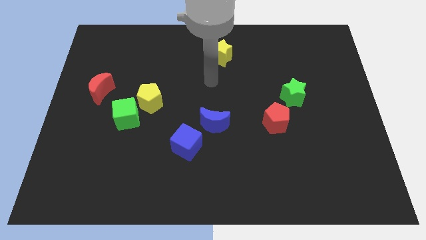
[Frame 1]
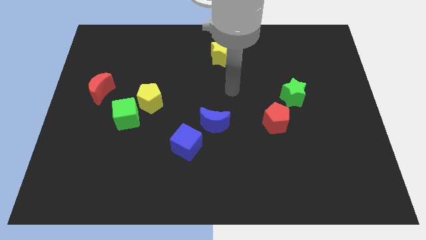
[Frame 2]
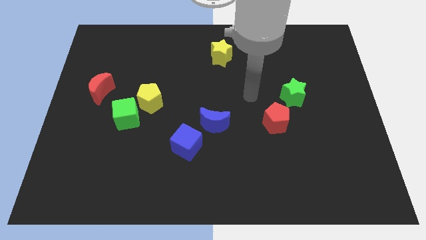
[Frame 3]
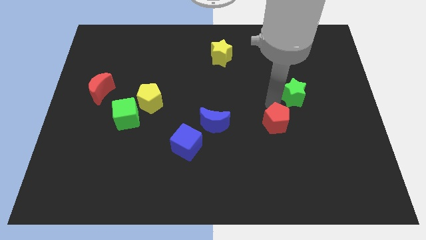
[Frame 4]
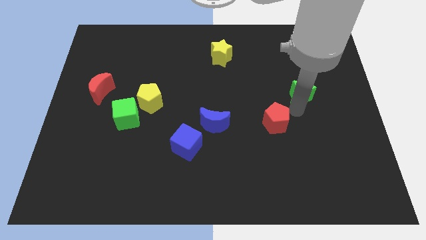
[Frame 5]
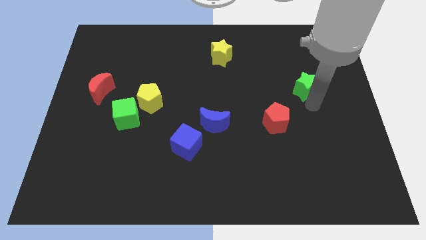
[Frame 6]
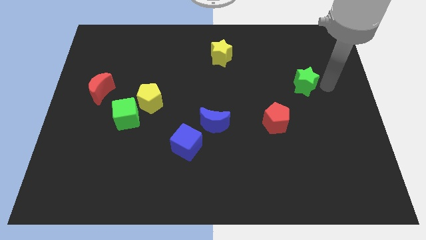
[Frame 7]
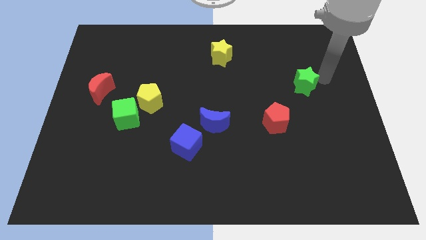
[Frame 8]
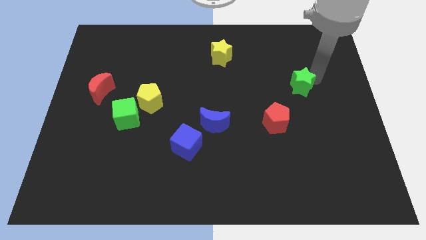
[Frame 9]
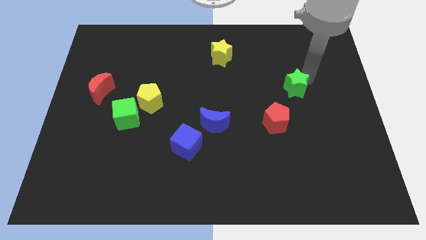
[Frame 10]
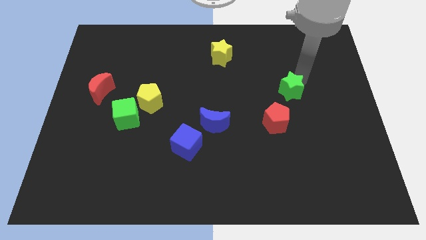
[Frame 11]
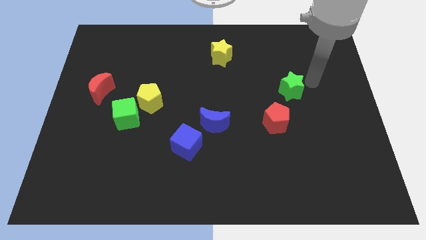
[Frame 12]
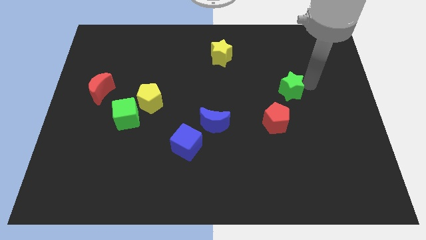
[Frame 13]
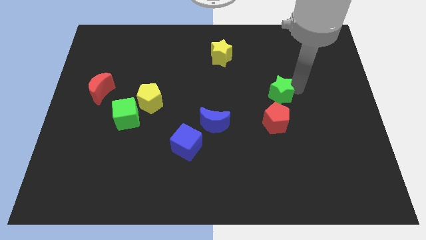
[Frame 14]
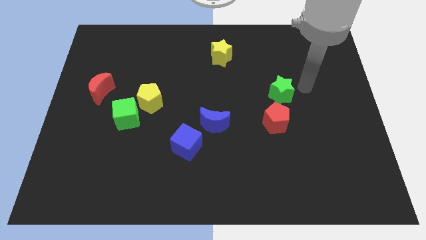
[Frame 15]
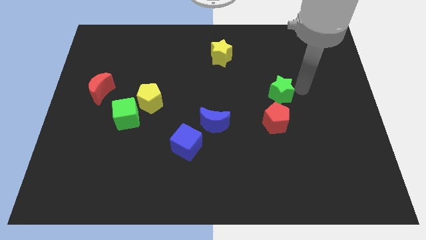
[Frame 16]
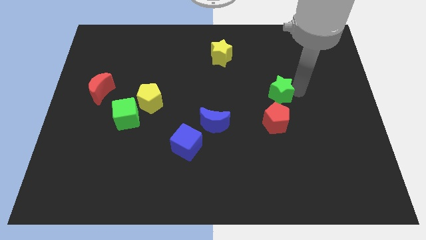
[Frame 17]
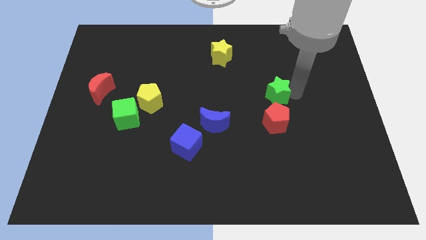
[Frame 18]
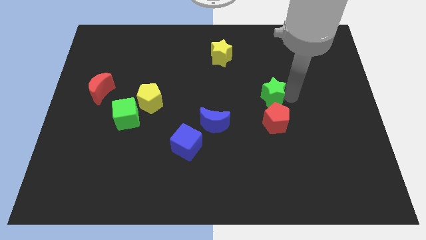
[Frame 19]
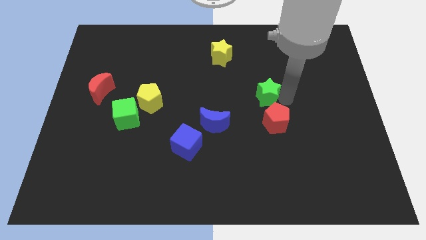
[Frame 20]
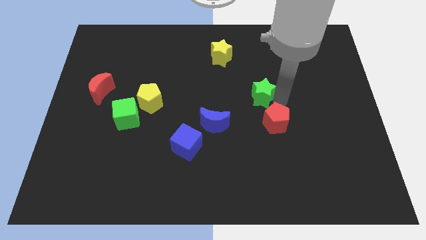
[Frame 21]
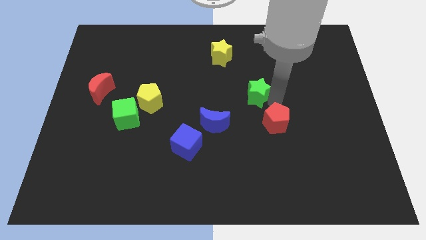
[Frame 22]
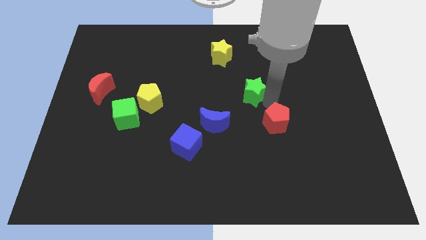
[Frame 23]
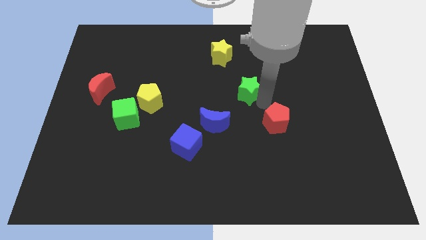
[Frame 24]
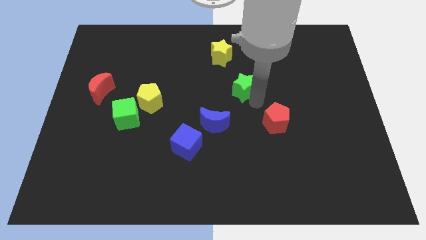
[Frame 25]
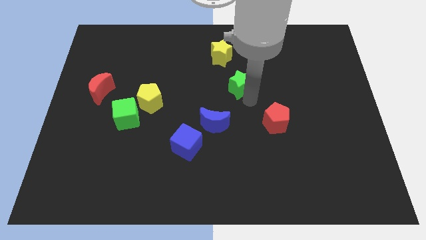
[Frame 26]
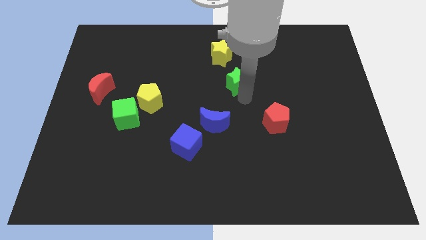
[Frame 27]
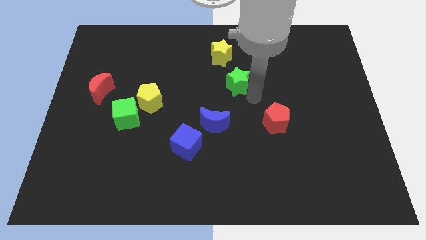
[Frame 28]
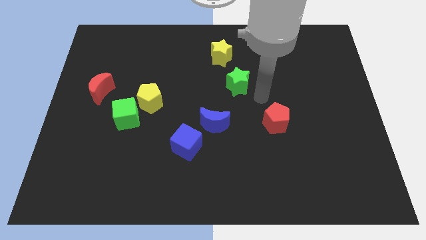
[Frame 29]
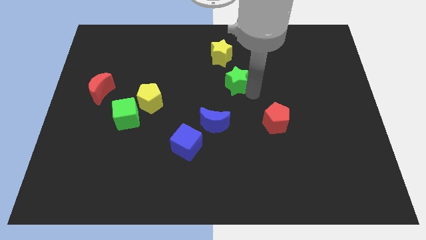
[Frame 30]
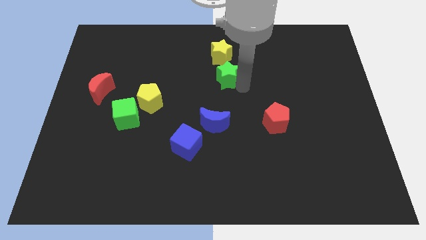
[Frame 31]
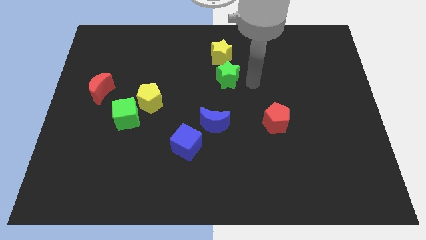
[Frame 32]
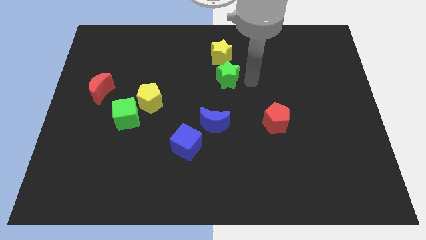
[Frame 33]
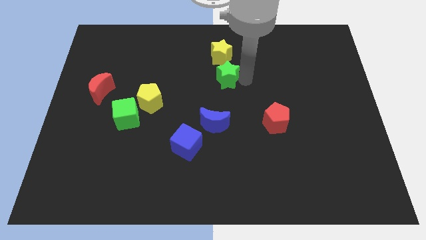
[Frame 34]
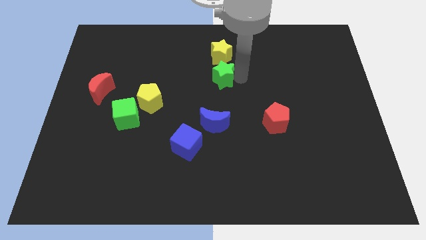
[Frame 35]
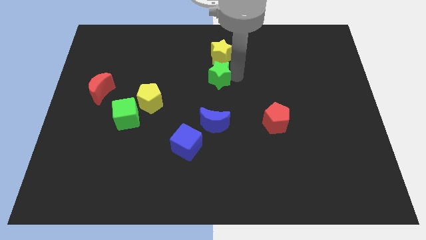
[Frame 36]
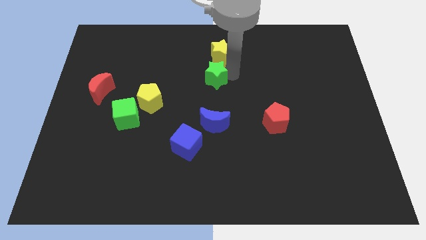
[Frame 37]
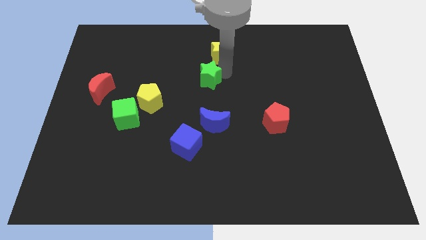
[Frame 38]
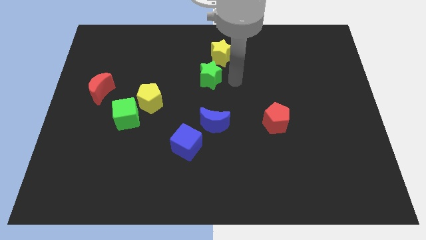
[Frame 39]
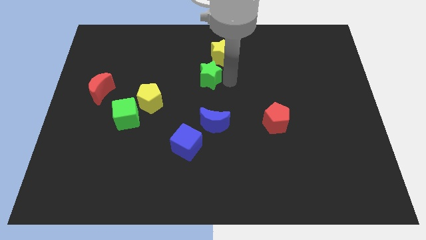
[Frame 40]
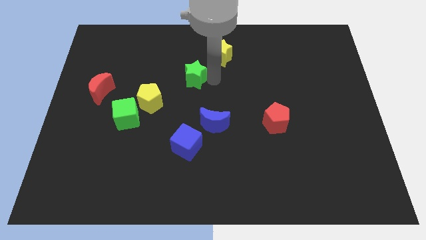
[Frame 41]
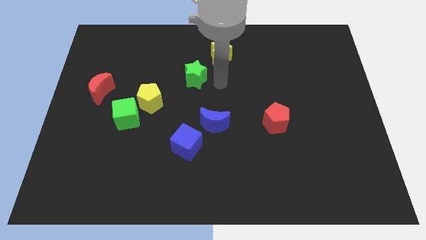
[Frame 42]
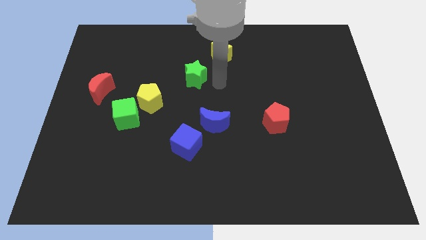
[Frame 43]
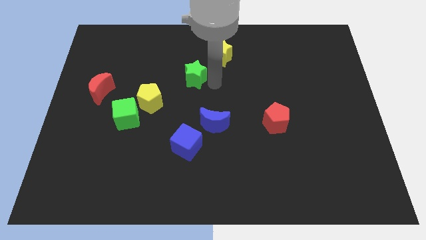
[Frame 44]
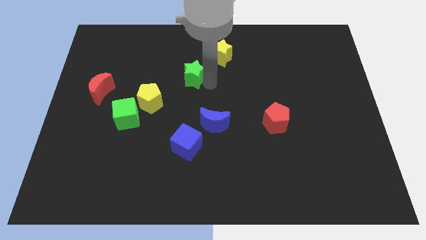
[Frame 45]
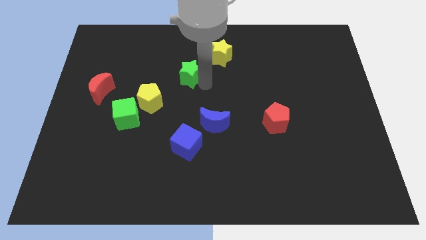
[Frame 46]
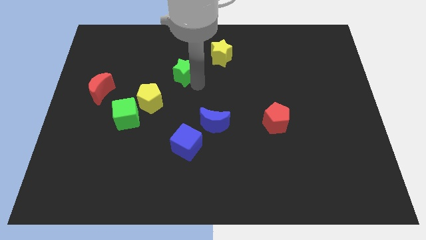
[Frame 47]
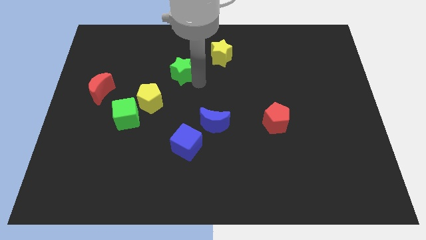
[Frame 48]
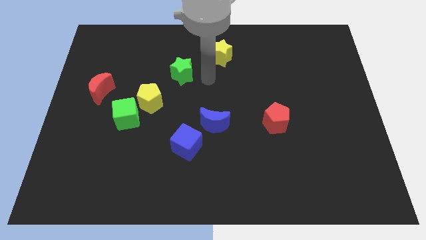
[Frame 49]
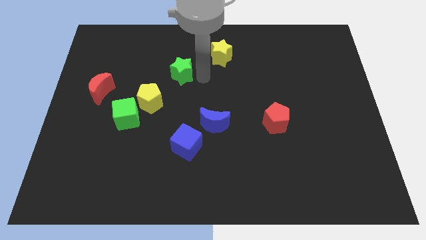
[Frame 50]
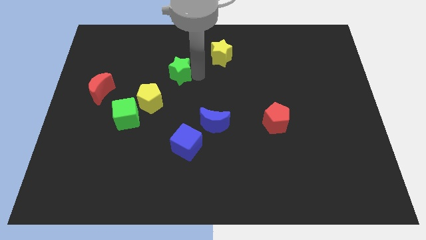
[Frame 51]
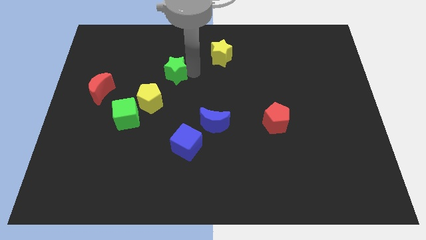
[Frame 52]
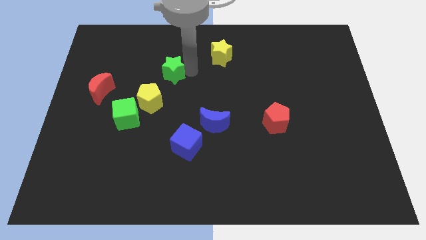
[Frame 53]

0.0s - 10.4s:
put the green star above the yellow pentagon

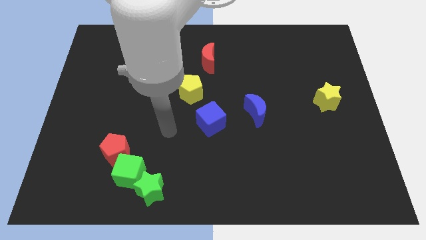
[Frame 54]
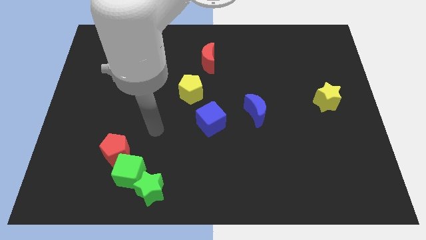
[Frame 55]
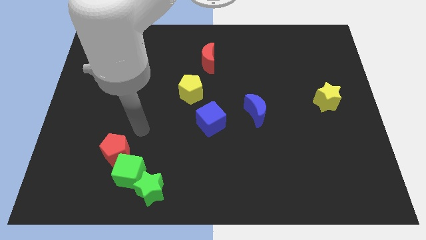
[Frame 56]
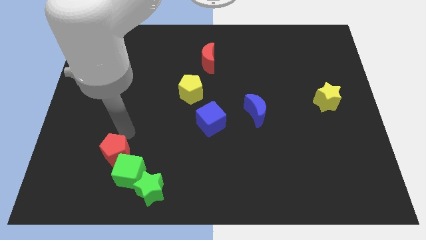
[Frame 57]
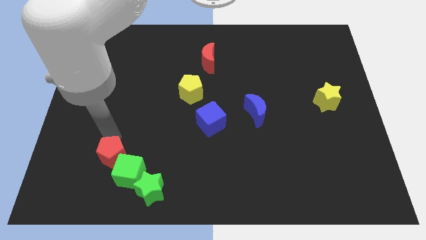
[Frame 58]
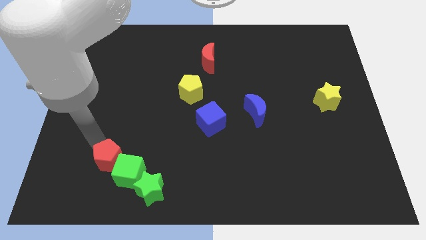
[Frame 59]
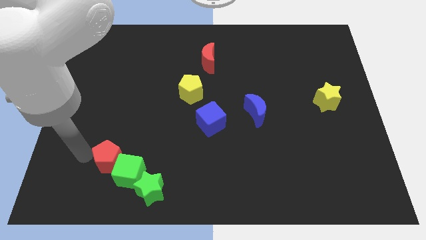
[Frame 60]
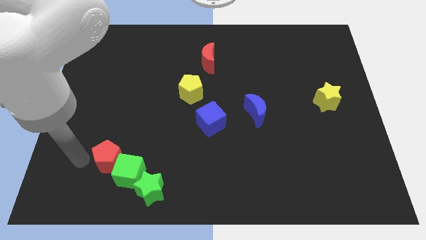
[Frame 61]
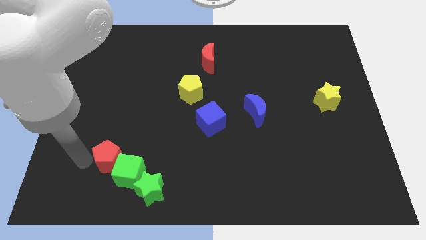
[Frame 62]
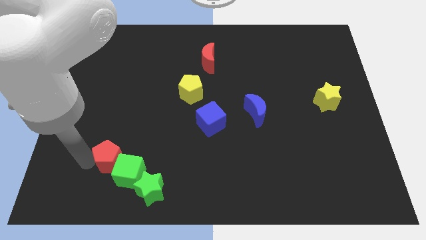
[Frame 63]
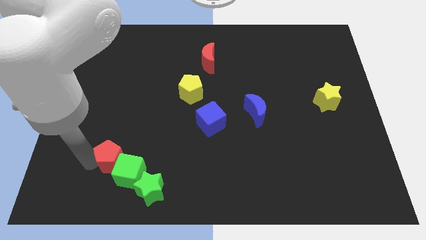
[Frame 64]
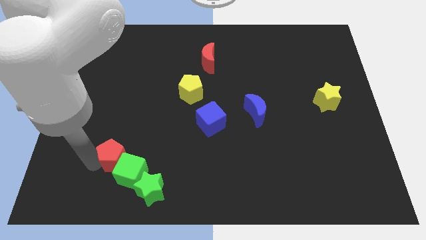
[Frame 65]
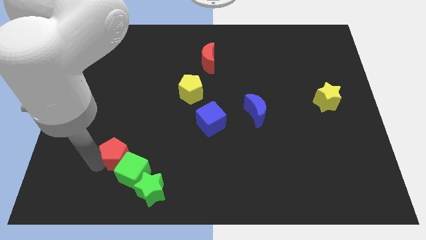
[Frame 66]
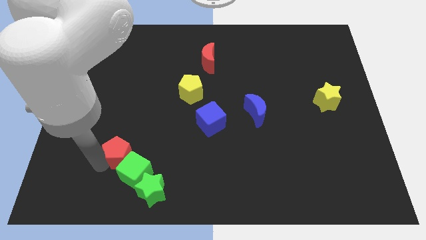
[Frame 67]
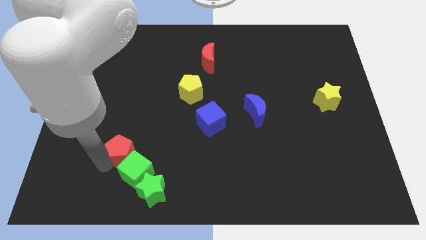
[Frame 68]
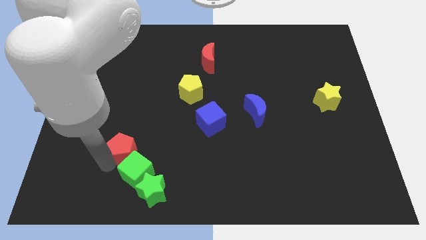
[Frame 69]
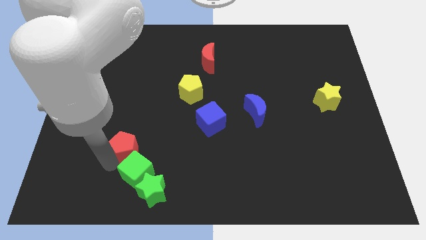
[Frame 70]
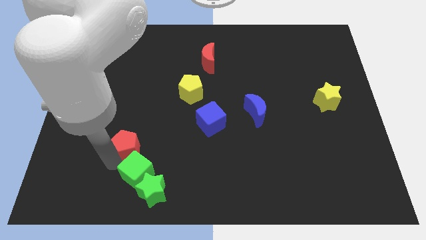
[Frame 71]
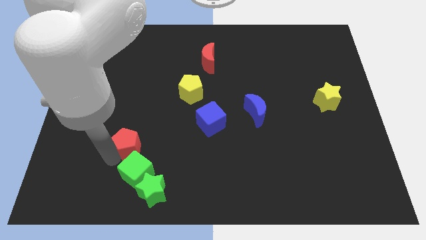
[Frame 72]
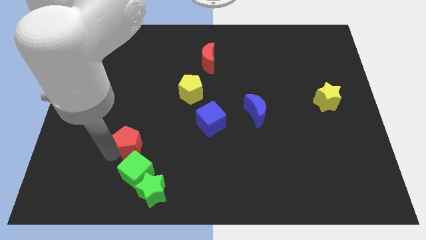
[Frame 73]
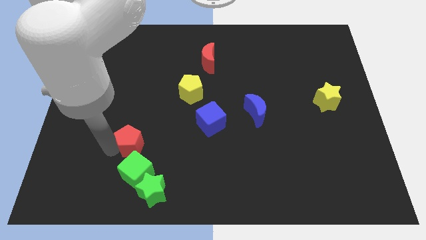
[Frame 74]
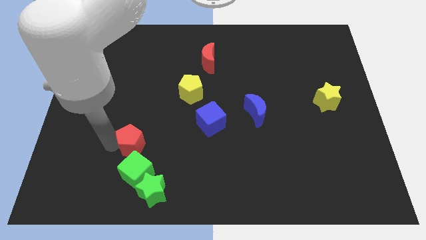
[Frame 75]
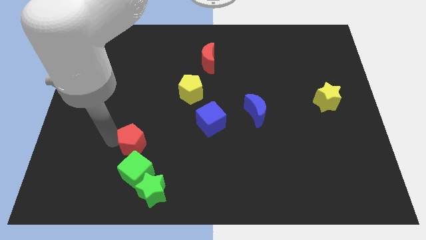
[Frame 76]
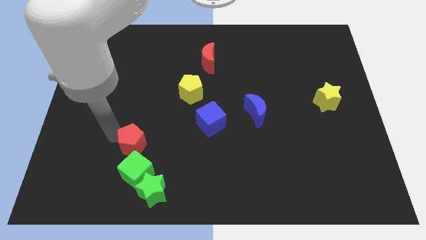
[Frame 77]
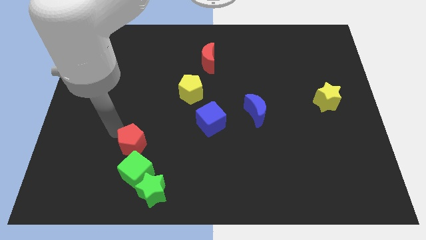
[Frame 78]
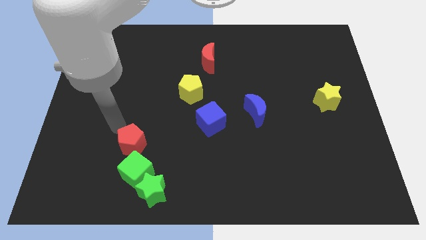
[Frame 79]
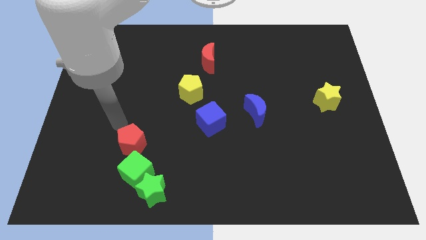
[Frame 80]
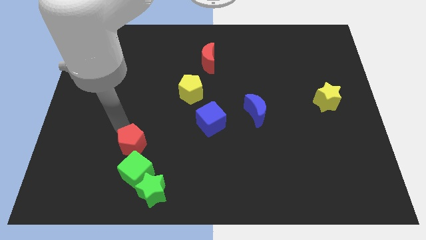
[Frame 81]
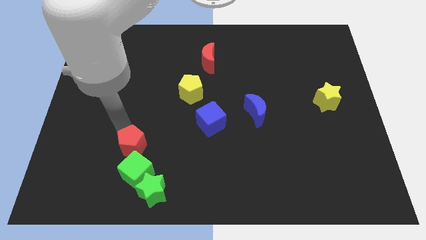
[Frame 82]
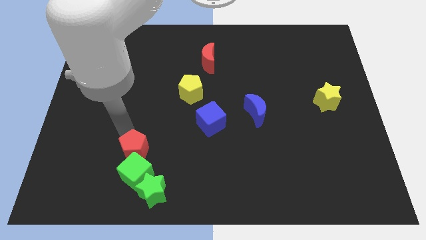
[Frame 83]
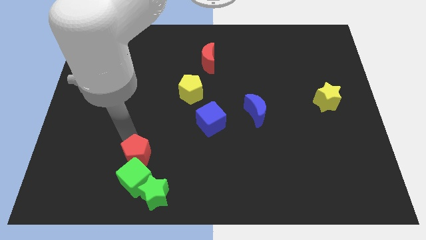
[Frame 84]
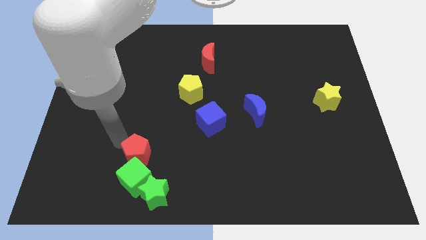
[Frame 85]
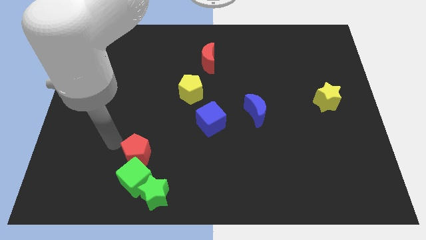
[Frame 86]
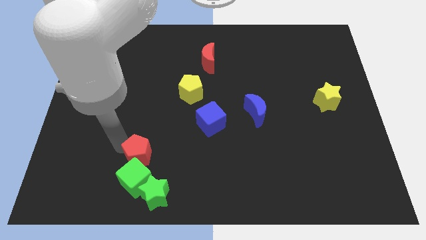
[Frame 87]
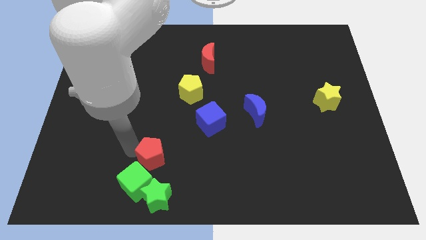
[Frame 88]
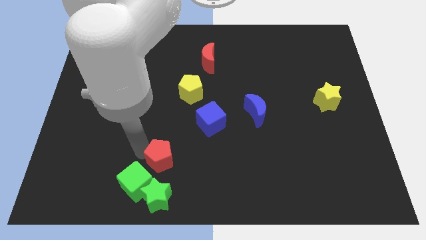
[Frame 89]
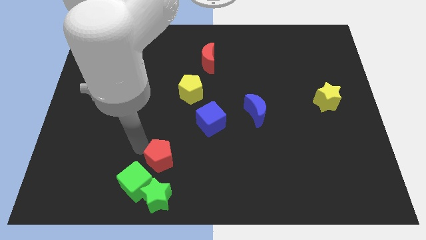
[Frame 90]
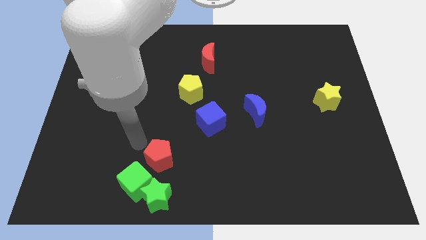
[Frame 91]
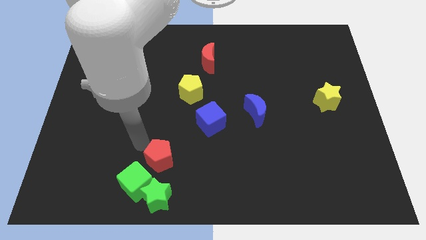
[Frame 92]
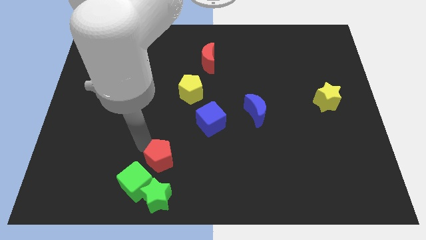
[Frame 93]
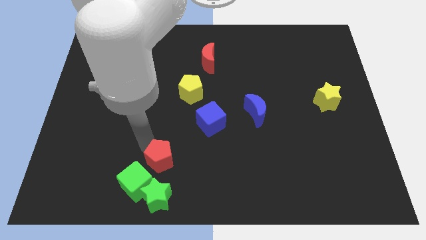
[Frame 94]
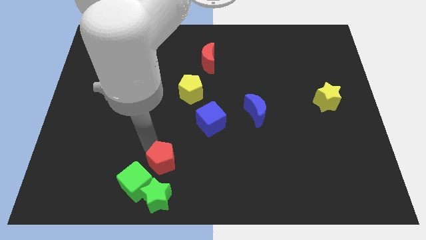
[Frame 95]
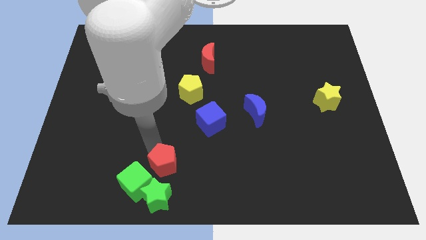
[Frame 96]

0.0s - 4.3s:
slide the red pentagon diagonally up and to the right of the green star
